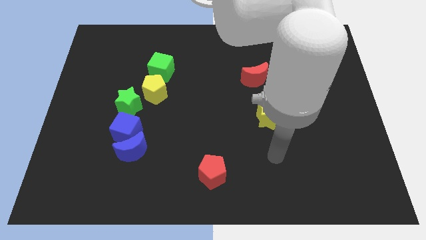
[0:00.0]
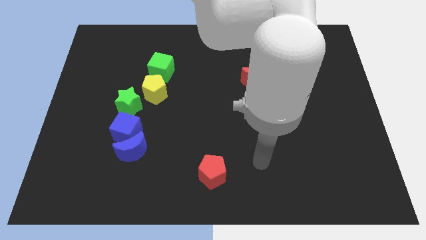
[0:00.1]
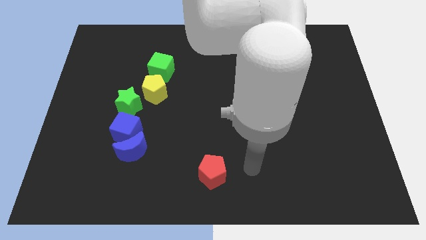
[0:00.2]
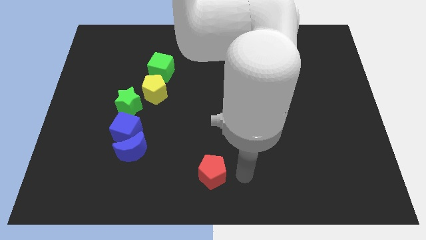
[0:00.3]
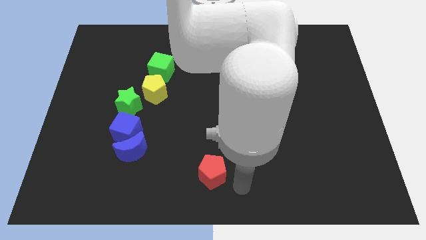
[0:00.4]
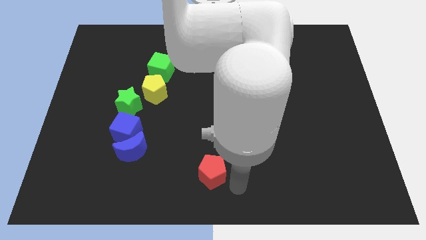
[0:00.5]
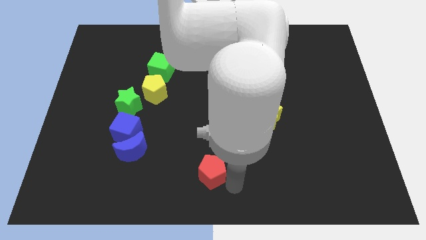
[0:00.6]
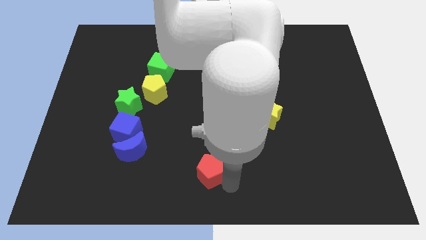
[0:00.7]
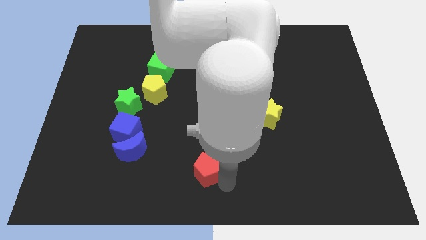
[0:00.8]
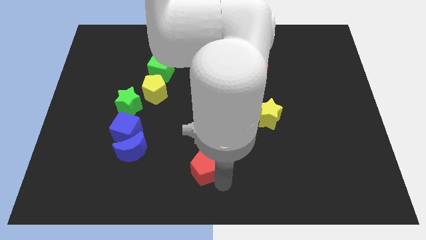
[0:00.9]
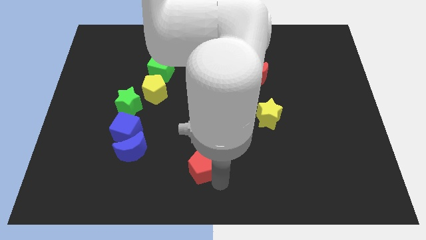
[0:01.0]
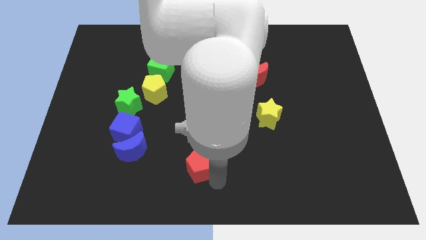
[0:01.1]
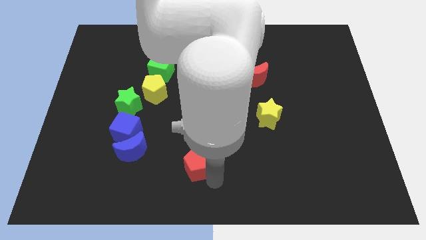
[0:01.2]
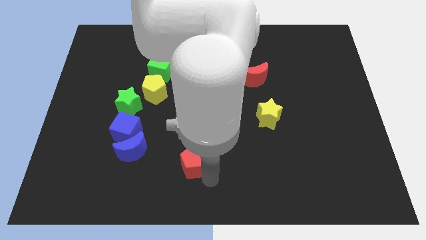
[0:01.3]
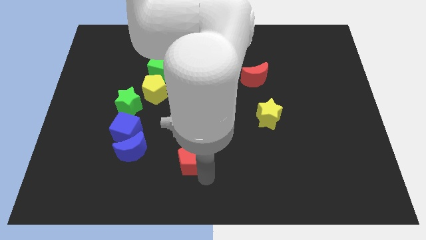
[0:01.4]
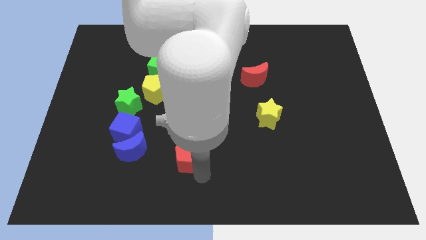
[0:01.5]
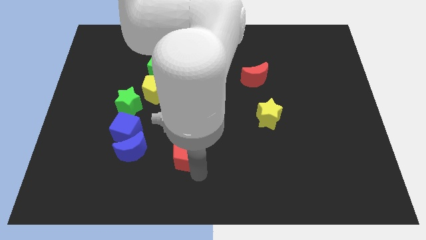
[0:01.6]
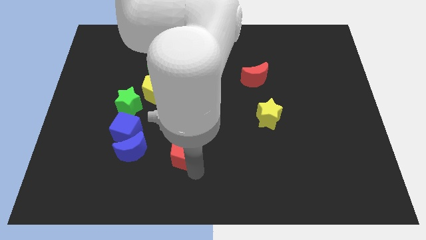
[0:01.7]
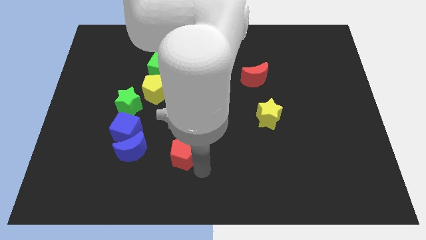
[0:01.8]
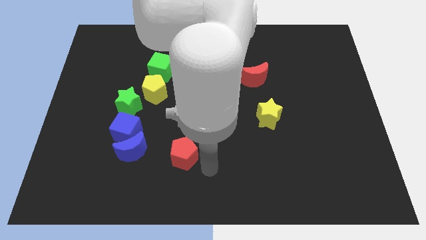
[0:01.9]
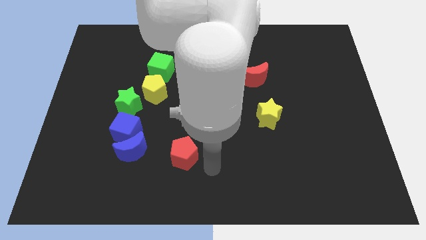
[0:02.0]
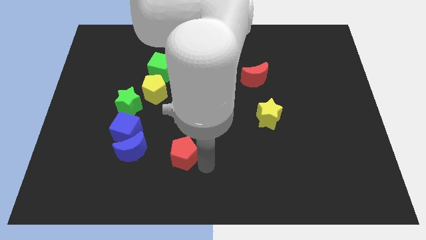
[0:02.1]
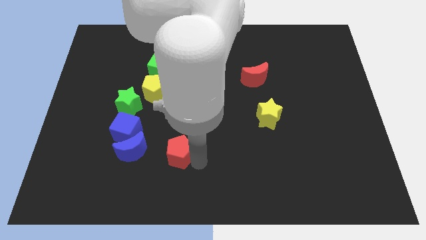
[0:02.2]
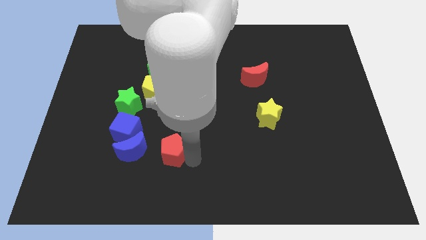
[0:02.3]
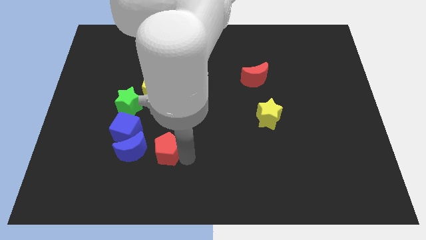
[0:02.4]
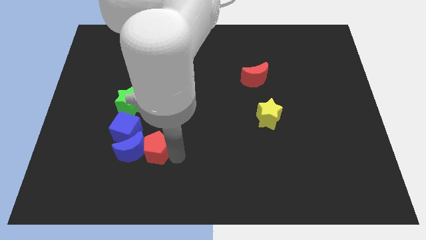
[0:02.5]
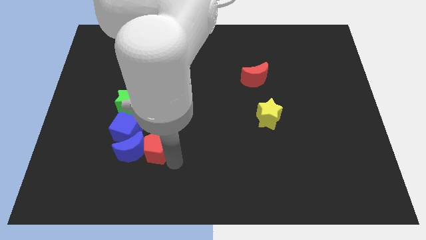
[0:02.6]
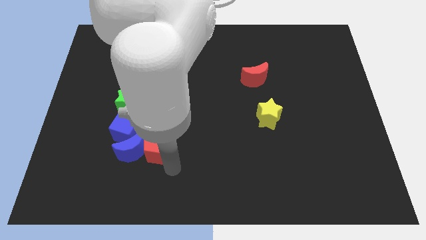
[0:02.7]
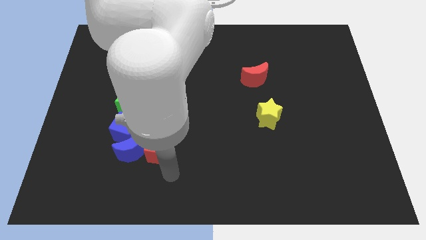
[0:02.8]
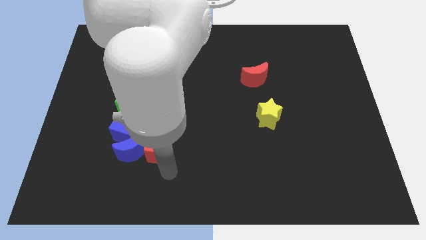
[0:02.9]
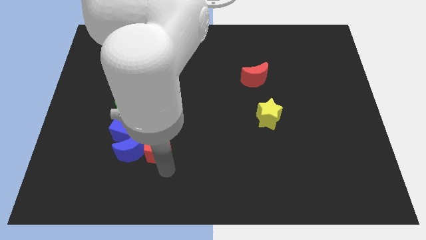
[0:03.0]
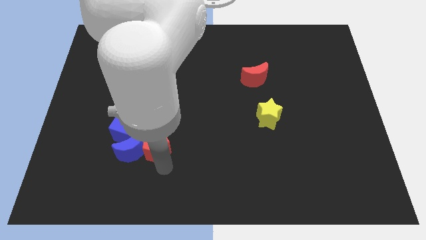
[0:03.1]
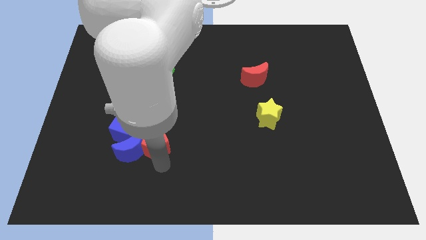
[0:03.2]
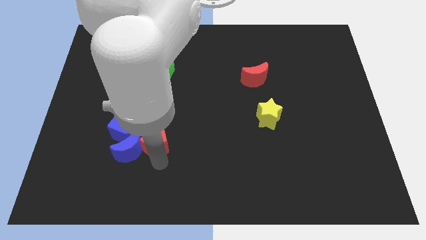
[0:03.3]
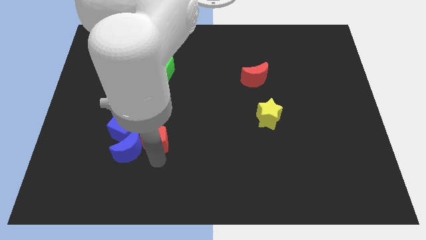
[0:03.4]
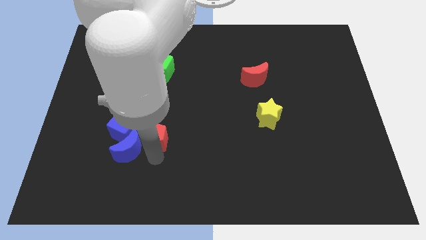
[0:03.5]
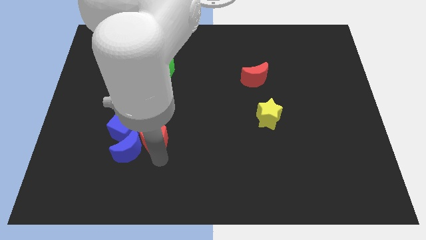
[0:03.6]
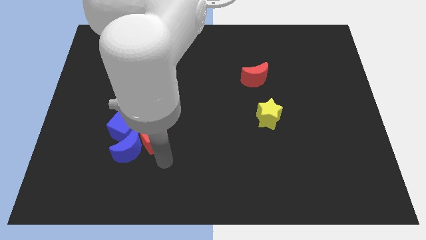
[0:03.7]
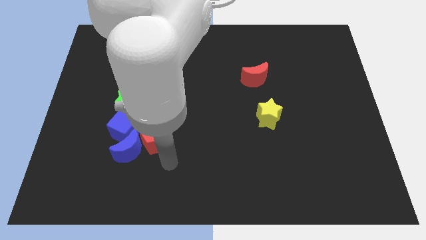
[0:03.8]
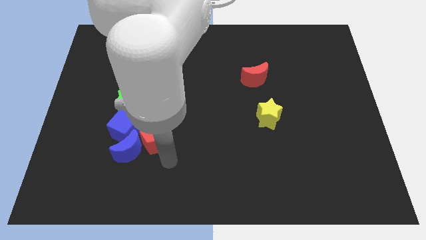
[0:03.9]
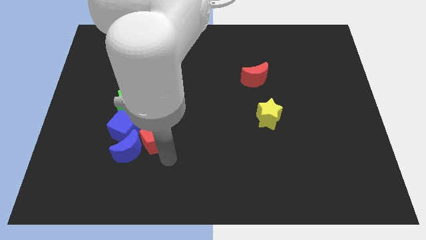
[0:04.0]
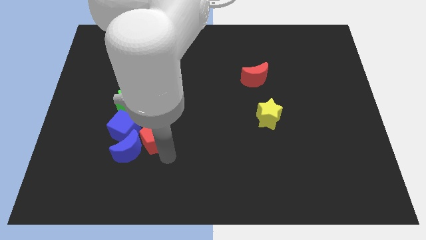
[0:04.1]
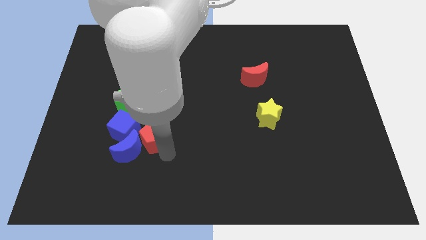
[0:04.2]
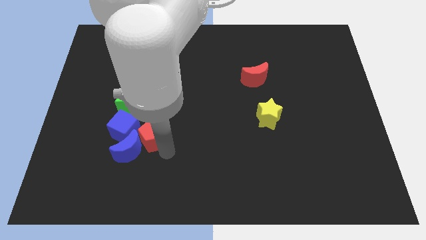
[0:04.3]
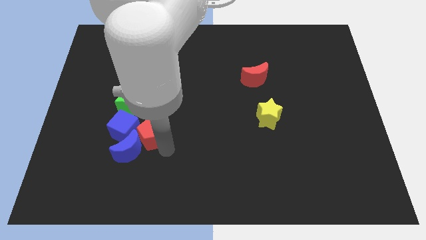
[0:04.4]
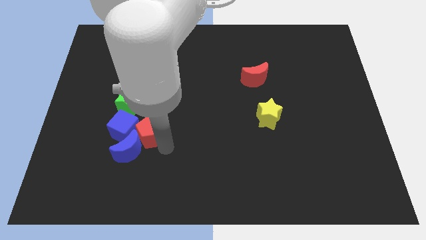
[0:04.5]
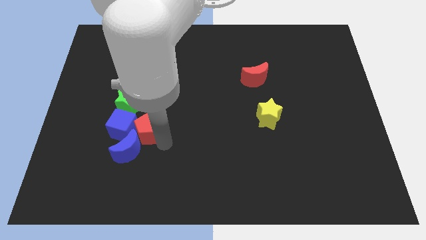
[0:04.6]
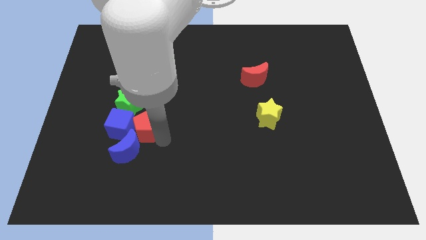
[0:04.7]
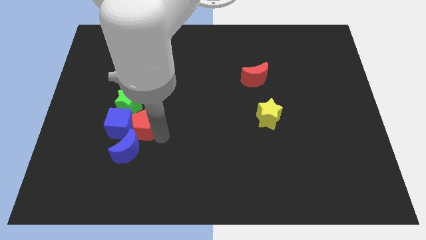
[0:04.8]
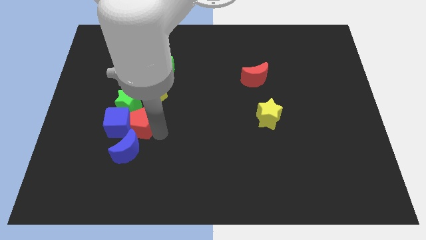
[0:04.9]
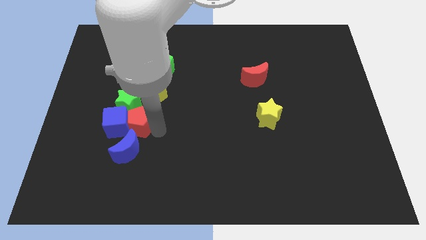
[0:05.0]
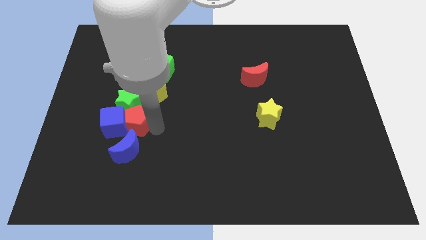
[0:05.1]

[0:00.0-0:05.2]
slide the red pentagon to the green star

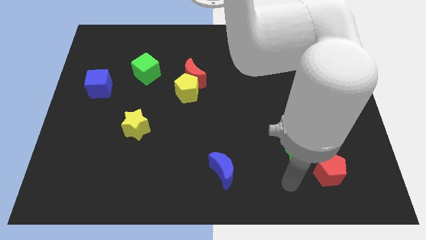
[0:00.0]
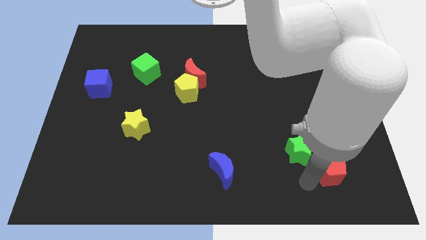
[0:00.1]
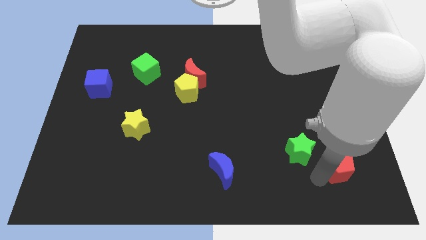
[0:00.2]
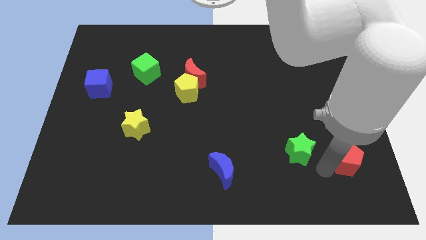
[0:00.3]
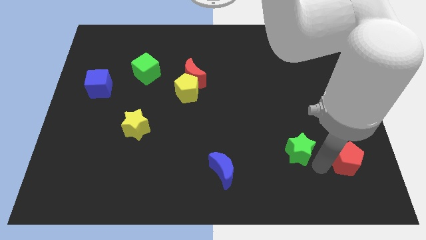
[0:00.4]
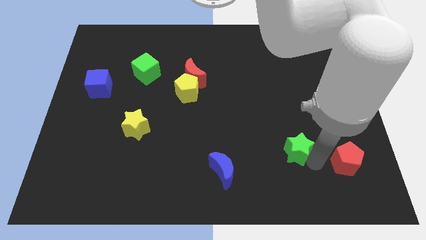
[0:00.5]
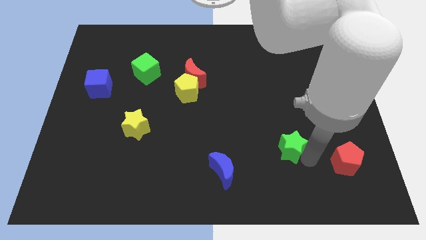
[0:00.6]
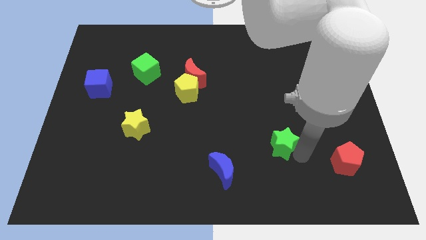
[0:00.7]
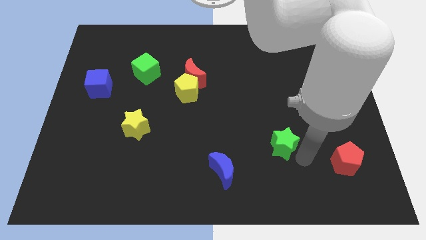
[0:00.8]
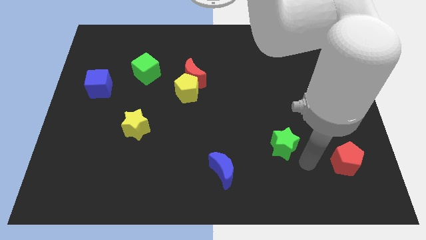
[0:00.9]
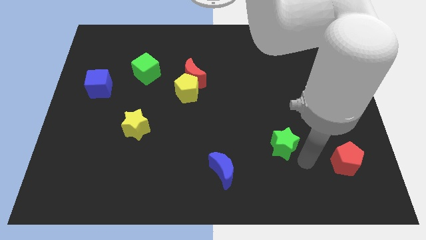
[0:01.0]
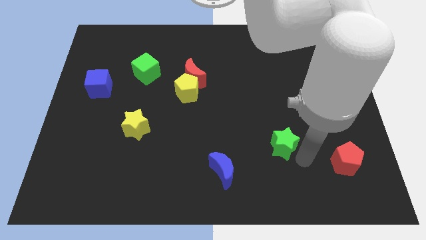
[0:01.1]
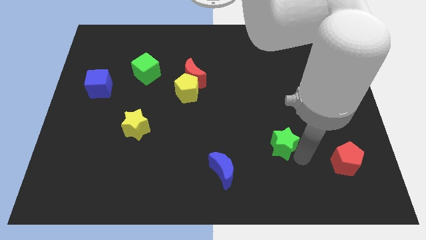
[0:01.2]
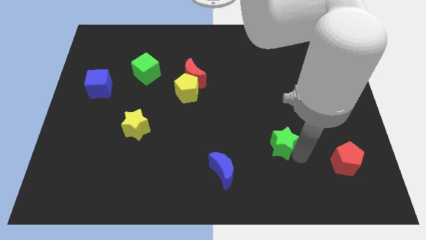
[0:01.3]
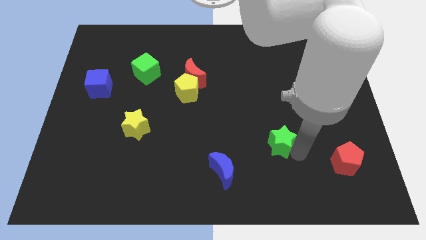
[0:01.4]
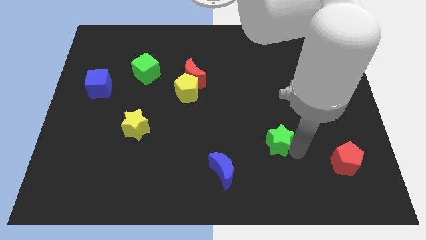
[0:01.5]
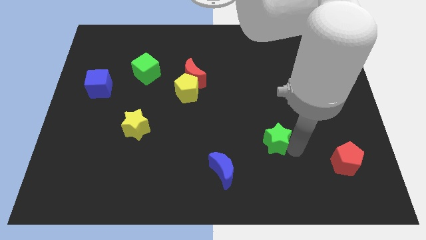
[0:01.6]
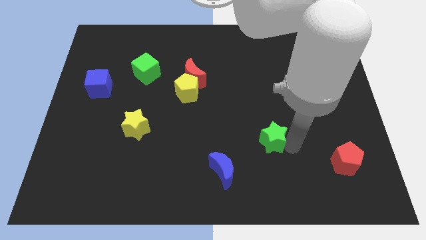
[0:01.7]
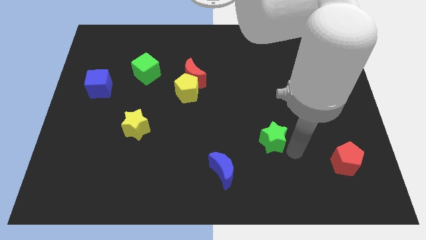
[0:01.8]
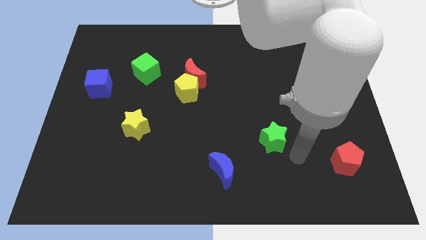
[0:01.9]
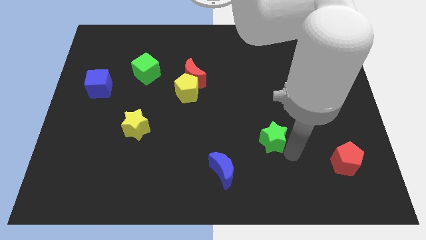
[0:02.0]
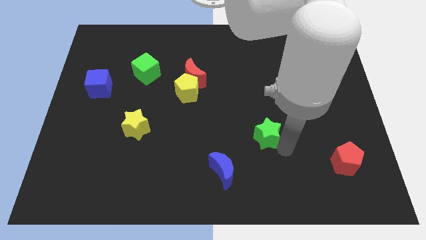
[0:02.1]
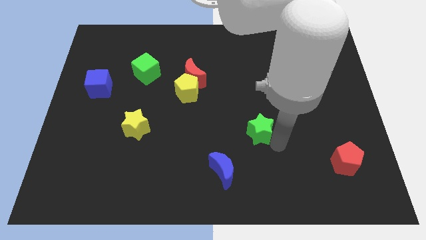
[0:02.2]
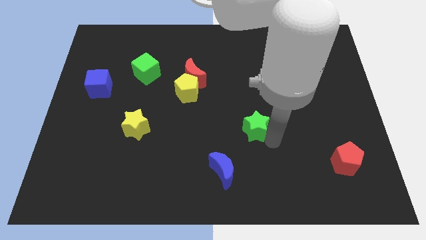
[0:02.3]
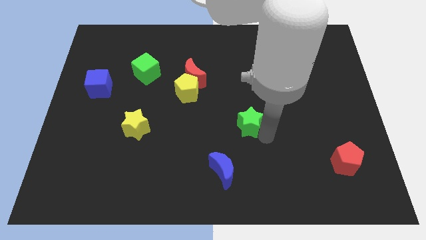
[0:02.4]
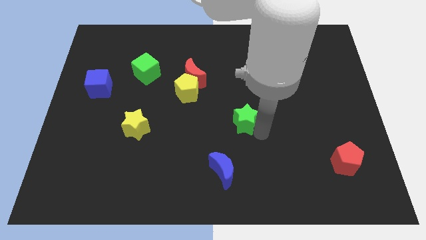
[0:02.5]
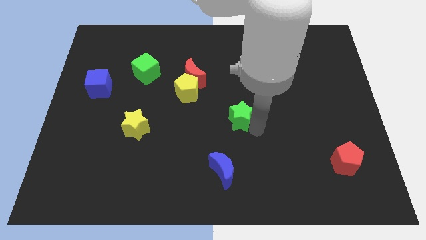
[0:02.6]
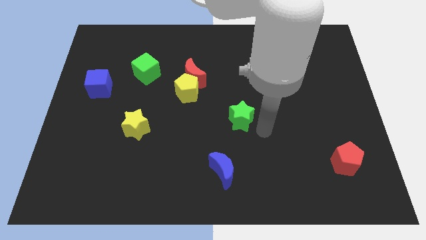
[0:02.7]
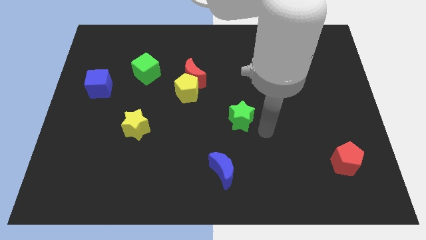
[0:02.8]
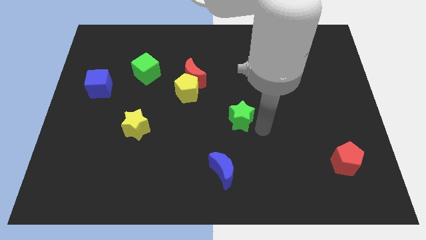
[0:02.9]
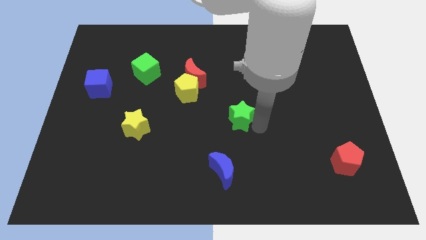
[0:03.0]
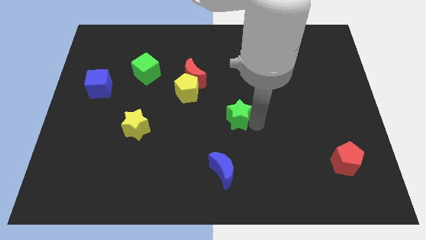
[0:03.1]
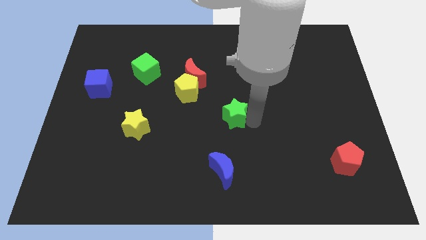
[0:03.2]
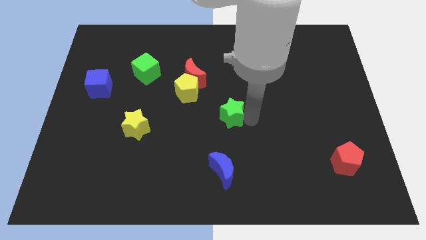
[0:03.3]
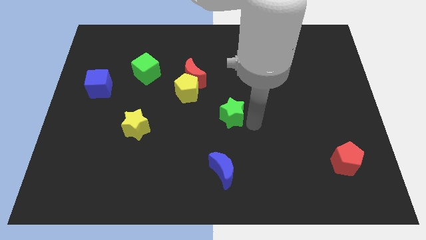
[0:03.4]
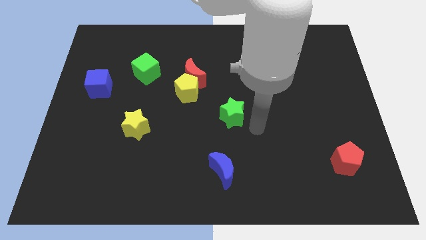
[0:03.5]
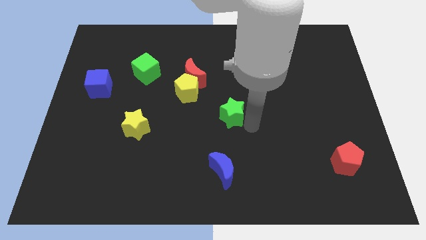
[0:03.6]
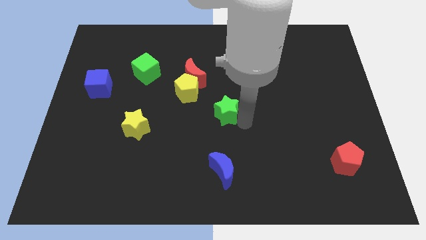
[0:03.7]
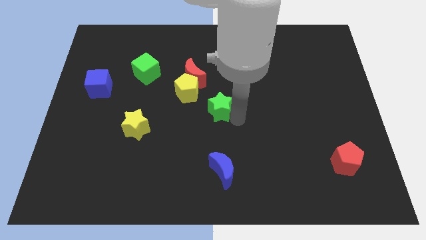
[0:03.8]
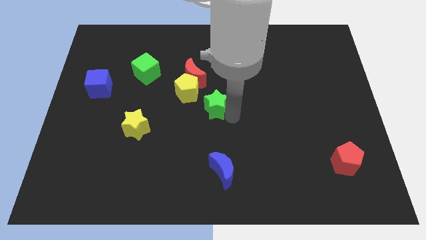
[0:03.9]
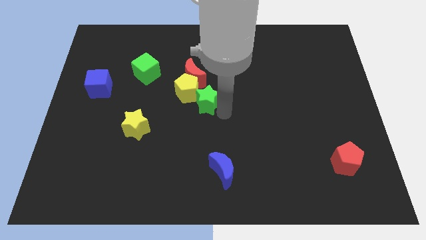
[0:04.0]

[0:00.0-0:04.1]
put the green star close to the yellow pentagon
